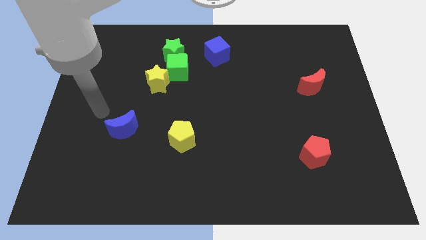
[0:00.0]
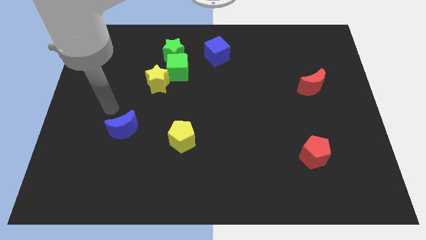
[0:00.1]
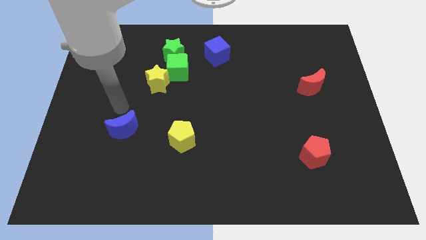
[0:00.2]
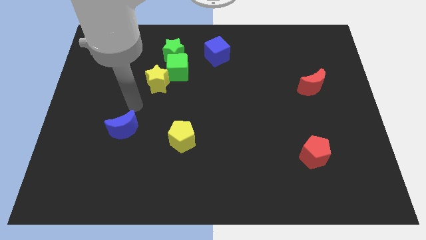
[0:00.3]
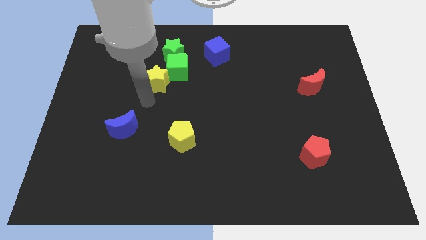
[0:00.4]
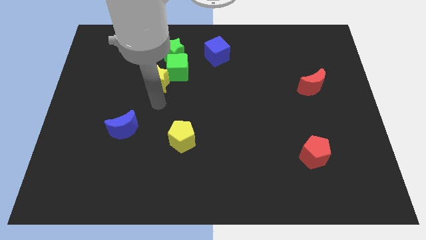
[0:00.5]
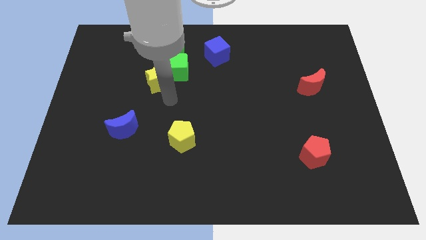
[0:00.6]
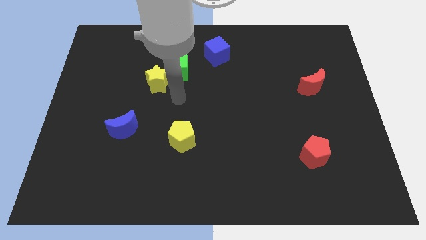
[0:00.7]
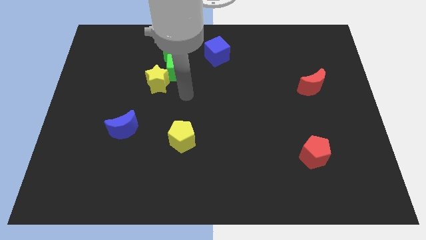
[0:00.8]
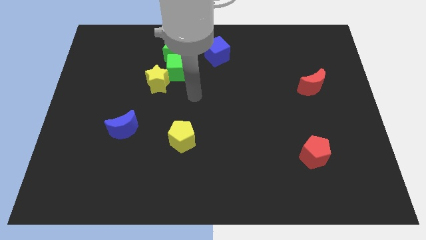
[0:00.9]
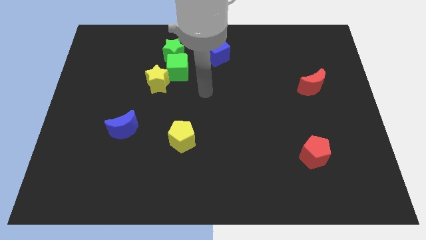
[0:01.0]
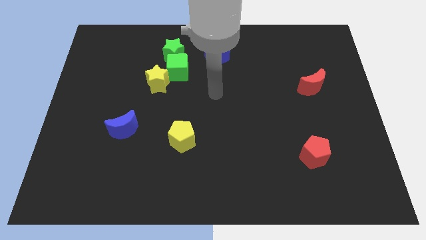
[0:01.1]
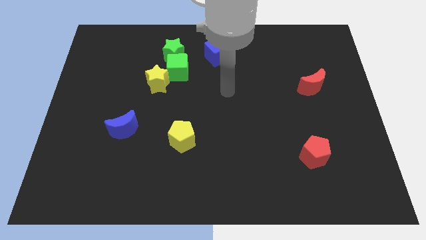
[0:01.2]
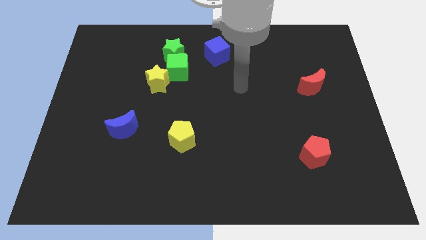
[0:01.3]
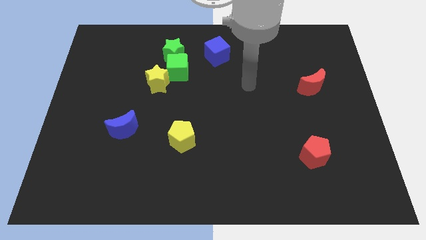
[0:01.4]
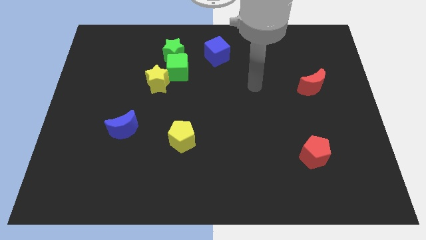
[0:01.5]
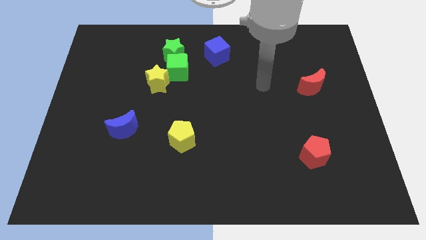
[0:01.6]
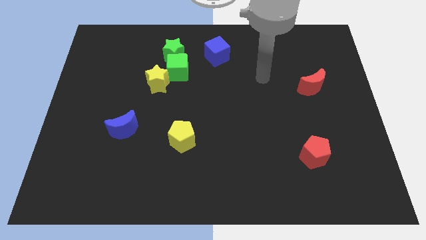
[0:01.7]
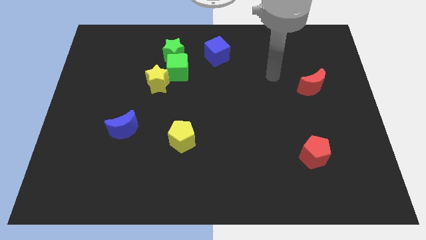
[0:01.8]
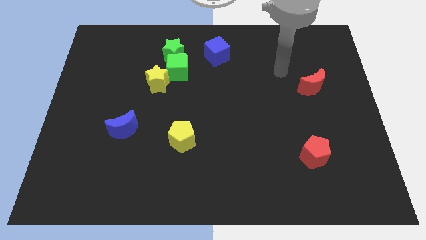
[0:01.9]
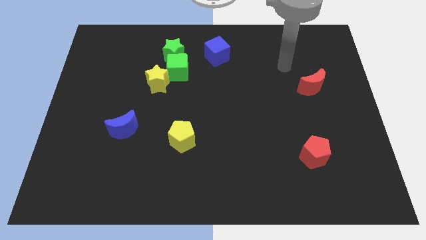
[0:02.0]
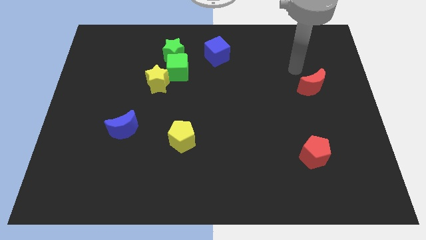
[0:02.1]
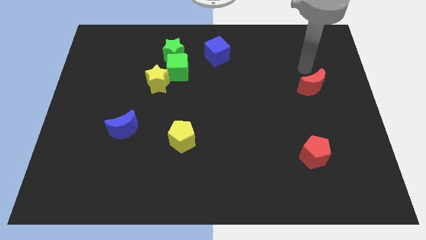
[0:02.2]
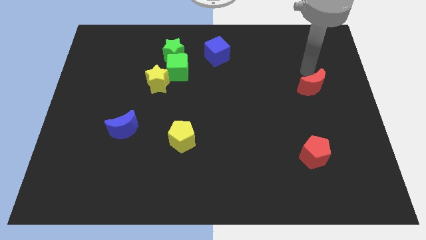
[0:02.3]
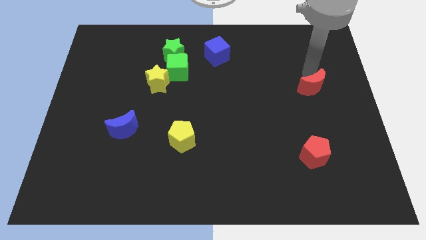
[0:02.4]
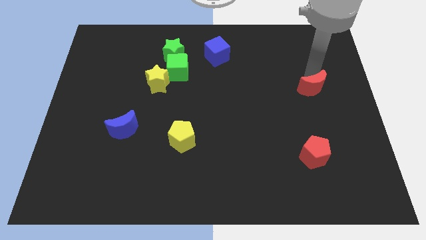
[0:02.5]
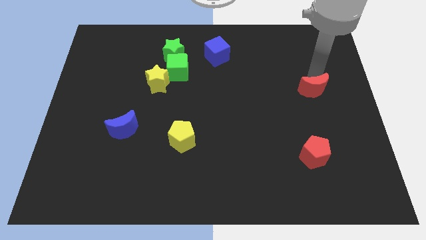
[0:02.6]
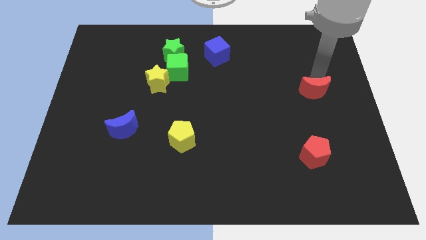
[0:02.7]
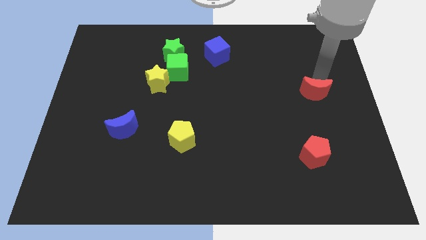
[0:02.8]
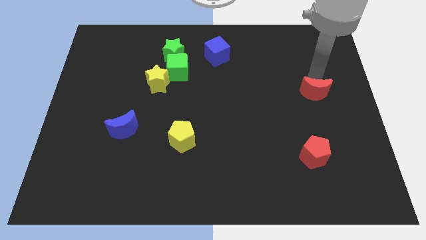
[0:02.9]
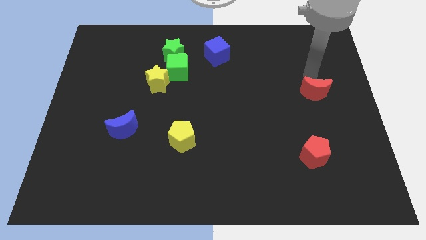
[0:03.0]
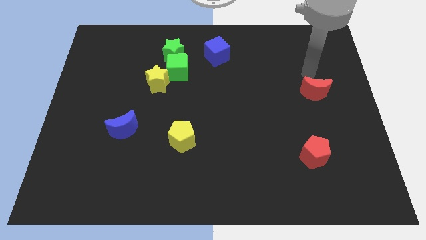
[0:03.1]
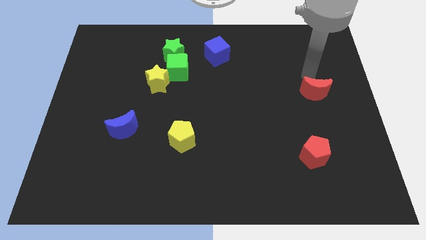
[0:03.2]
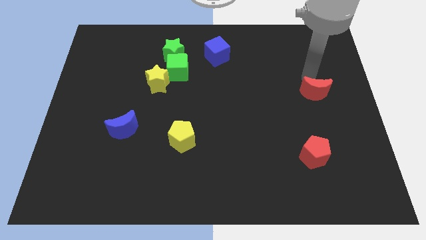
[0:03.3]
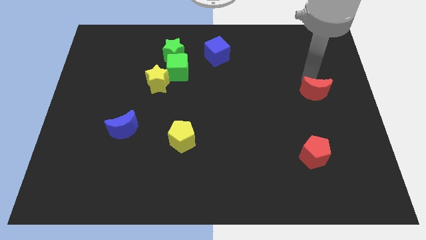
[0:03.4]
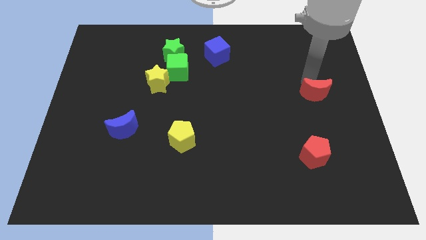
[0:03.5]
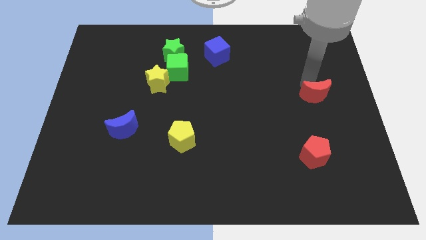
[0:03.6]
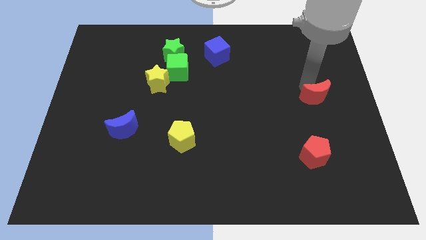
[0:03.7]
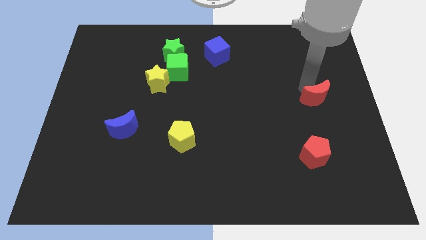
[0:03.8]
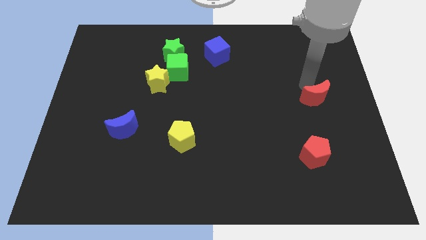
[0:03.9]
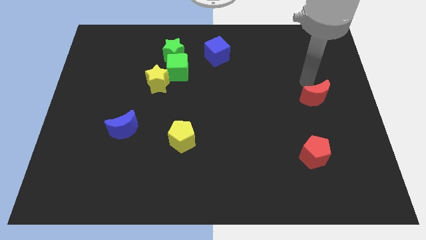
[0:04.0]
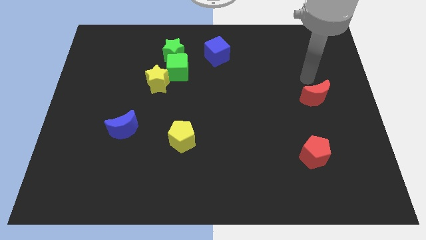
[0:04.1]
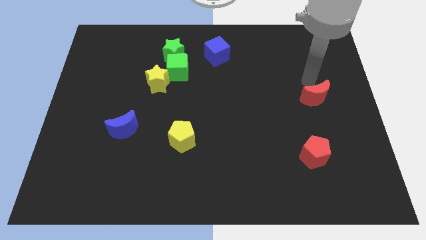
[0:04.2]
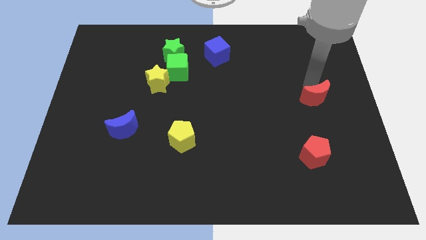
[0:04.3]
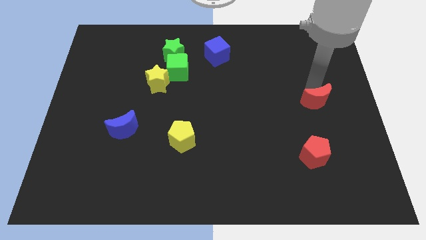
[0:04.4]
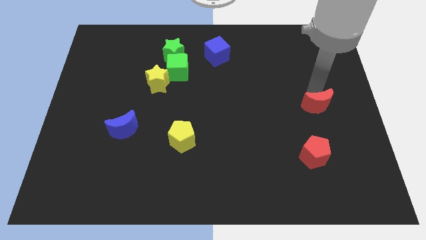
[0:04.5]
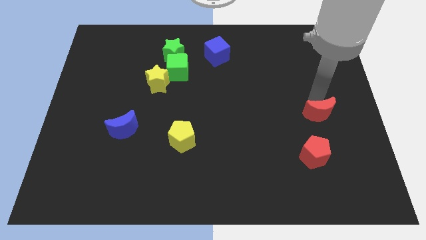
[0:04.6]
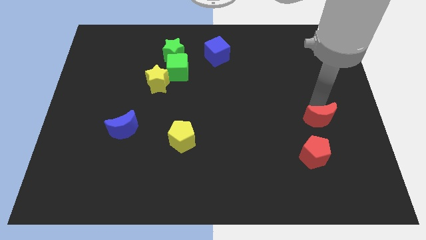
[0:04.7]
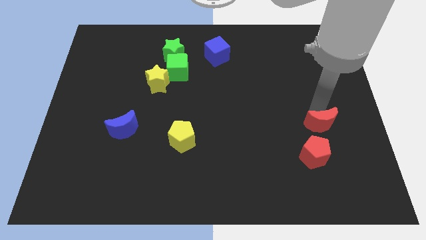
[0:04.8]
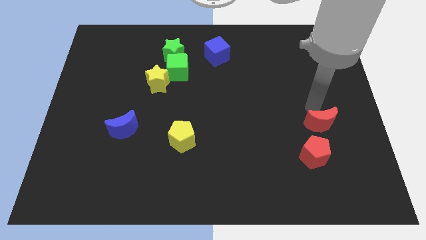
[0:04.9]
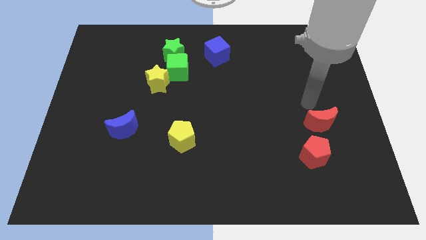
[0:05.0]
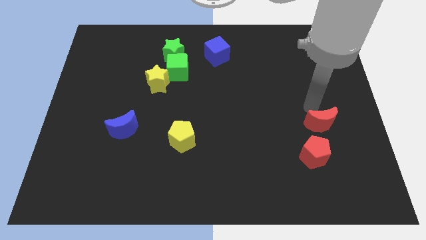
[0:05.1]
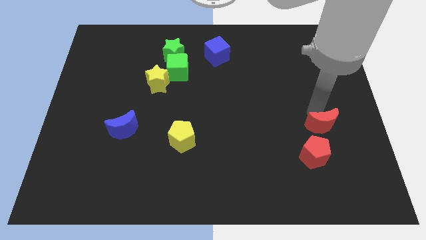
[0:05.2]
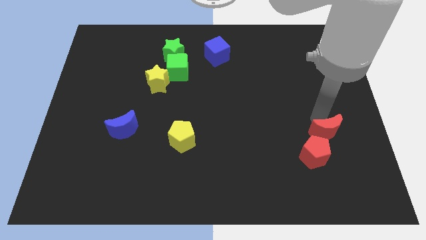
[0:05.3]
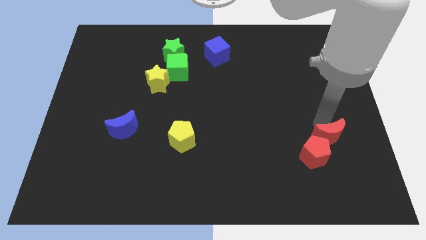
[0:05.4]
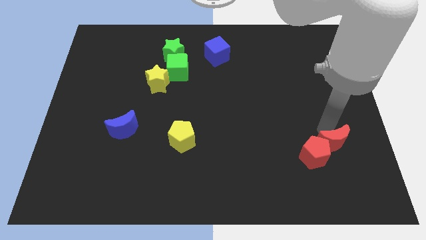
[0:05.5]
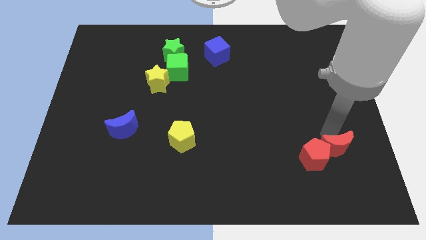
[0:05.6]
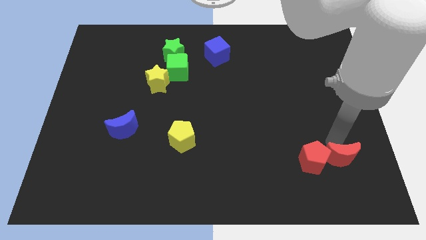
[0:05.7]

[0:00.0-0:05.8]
slide the red moon to the bottom right of the red pentagon

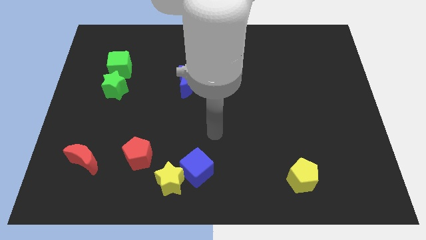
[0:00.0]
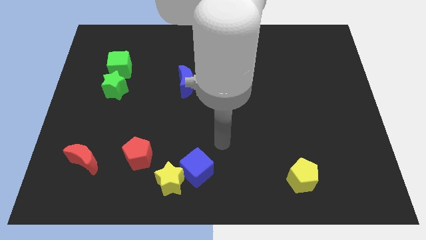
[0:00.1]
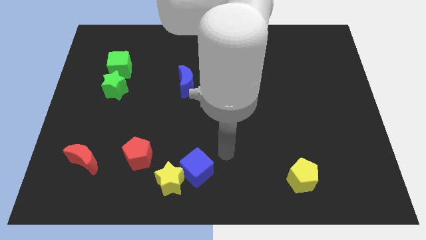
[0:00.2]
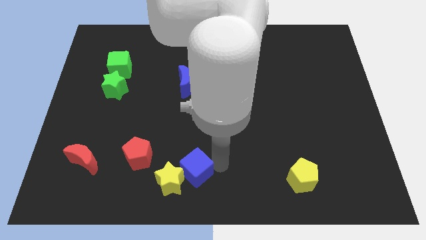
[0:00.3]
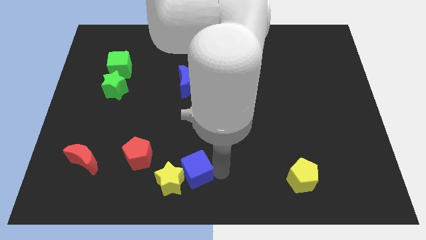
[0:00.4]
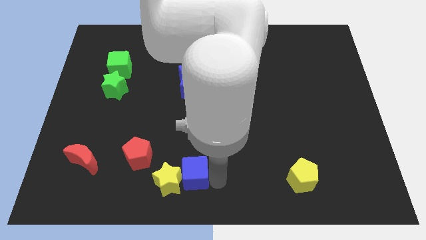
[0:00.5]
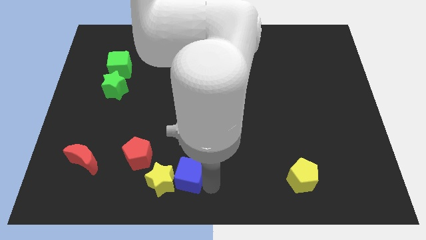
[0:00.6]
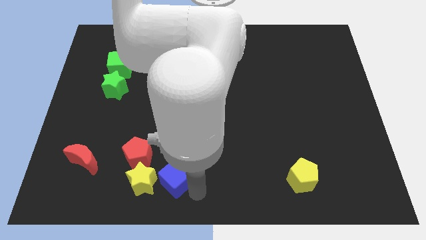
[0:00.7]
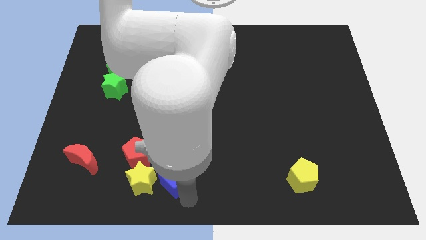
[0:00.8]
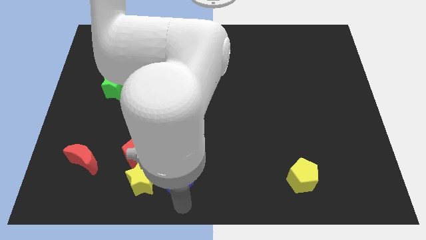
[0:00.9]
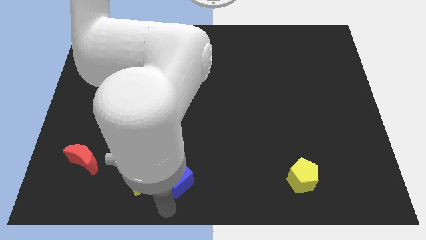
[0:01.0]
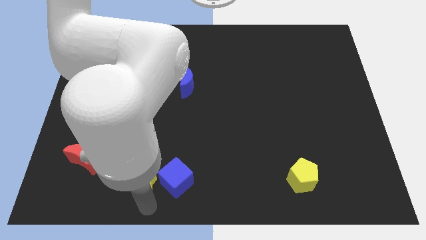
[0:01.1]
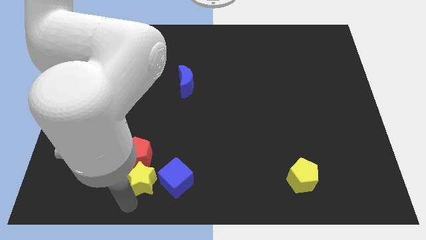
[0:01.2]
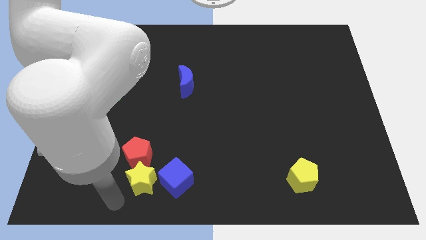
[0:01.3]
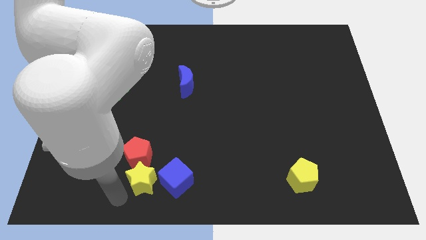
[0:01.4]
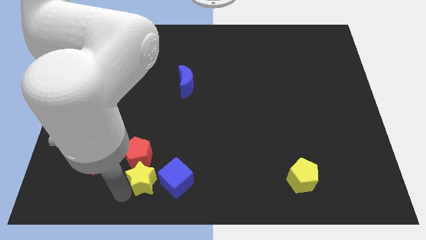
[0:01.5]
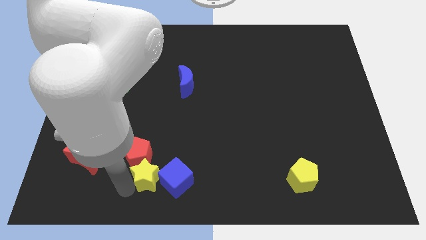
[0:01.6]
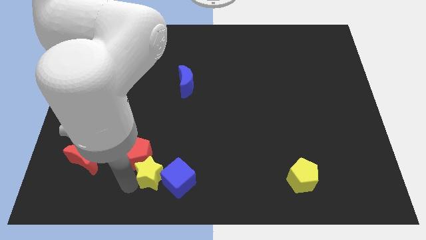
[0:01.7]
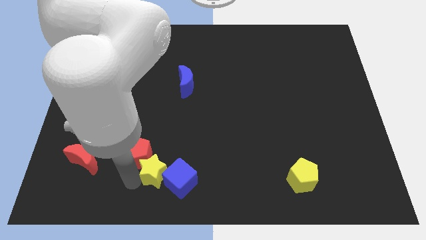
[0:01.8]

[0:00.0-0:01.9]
move the yellow star to the right side of the red pentagon
